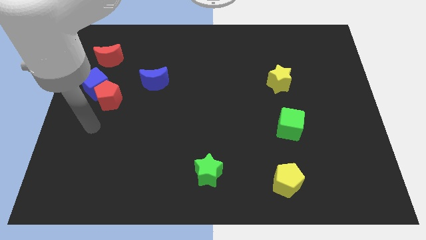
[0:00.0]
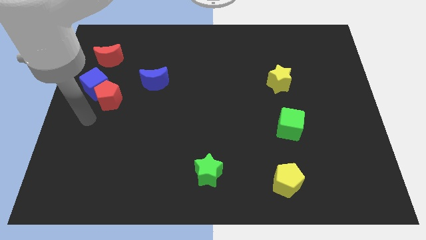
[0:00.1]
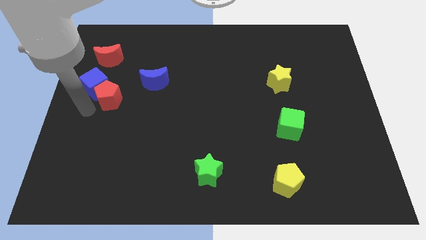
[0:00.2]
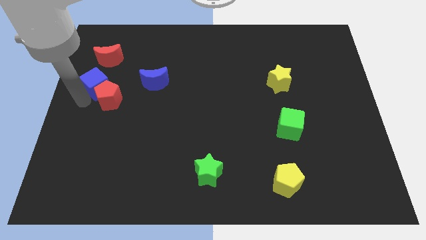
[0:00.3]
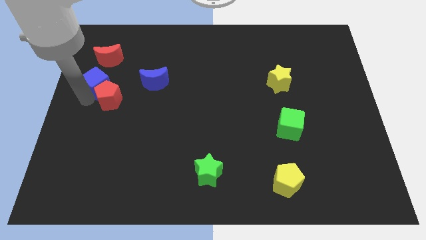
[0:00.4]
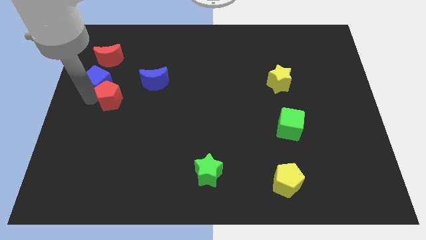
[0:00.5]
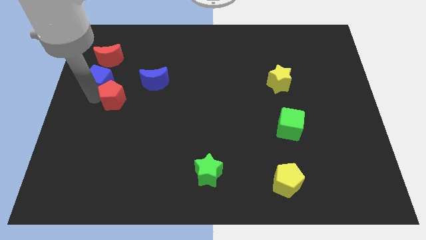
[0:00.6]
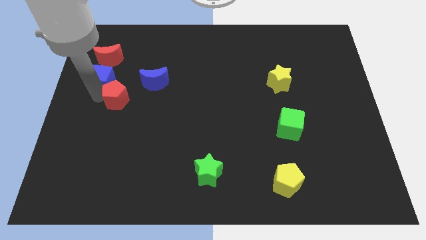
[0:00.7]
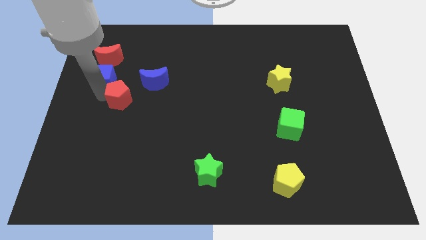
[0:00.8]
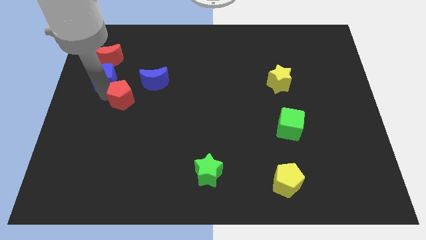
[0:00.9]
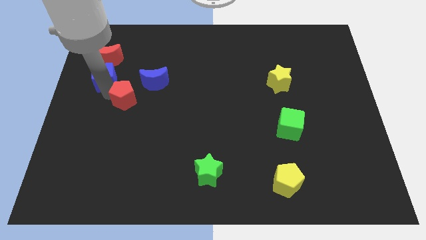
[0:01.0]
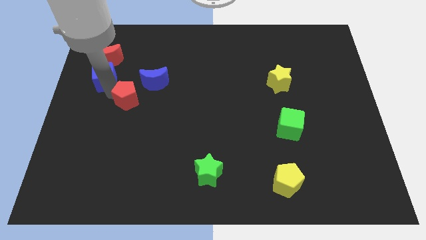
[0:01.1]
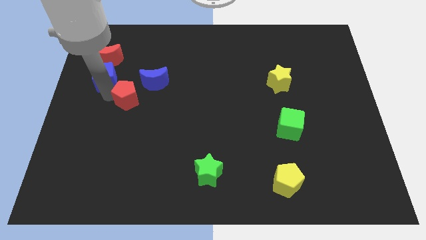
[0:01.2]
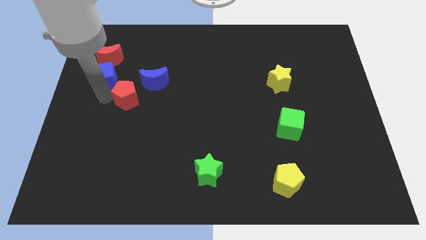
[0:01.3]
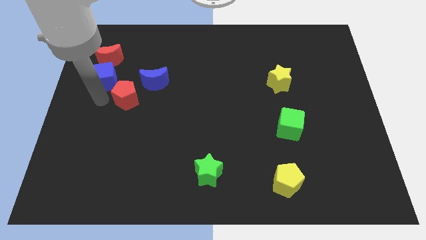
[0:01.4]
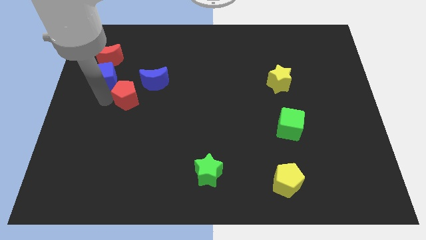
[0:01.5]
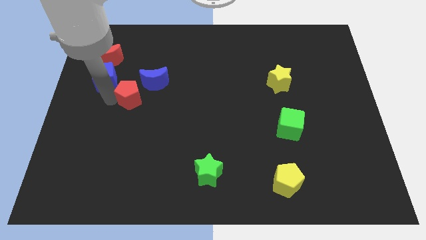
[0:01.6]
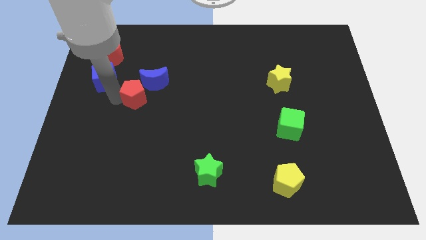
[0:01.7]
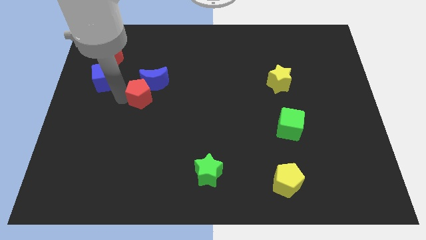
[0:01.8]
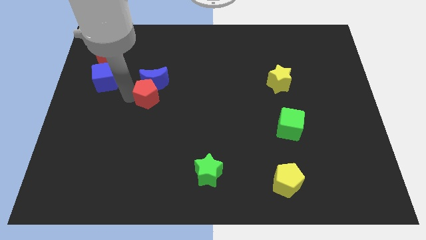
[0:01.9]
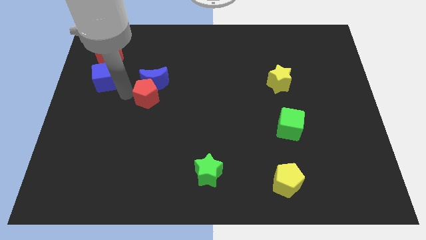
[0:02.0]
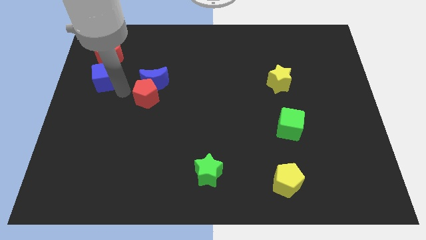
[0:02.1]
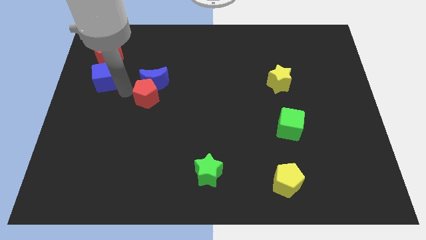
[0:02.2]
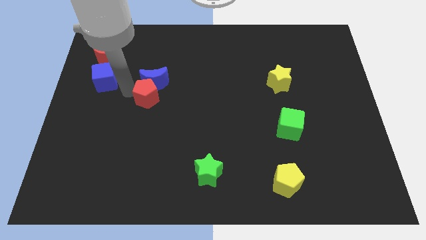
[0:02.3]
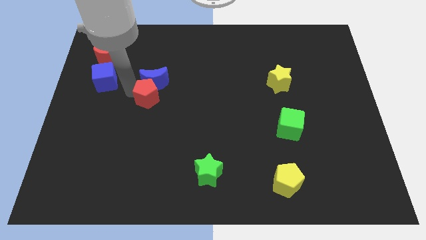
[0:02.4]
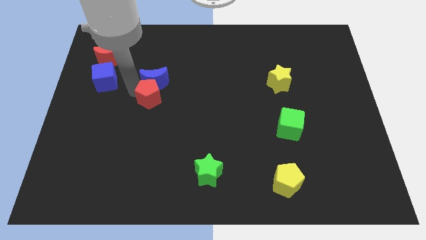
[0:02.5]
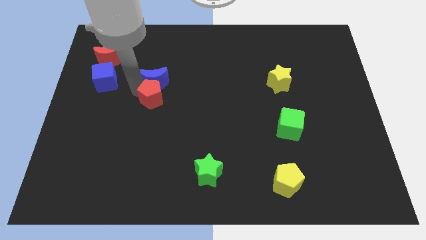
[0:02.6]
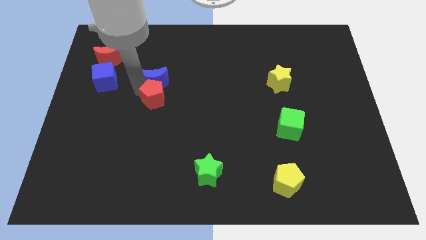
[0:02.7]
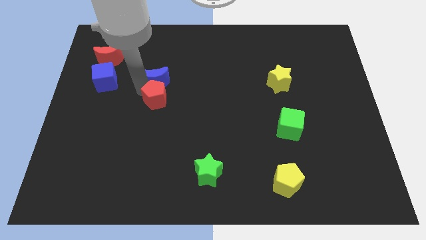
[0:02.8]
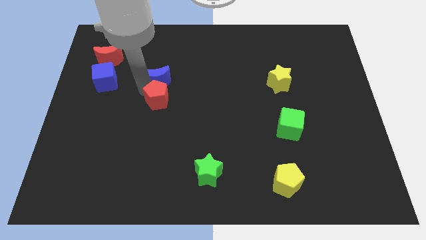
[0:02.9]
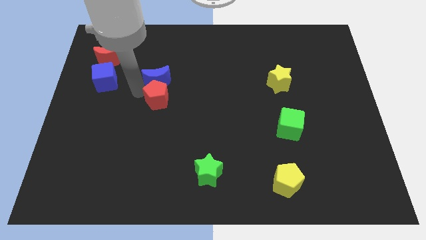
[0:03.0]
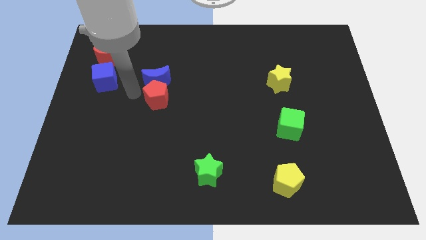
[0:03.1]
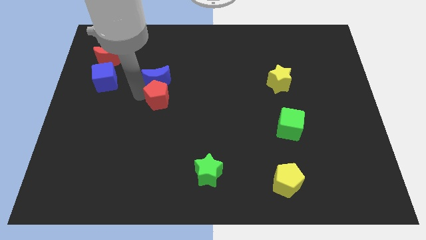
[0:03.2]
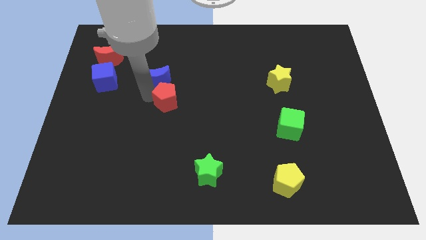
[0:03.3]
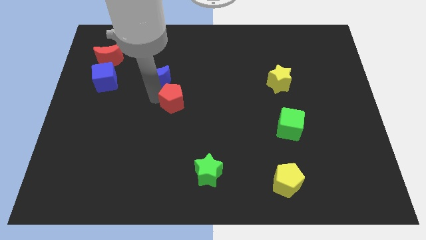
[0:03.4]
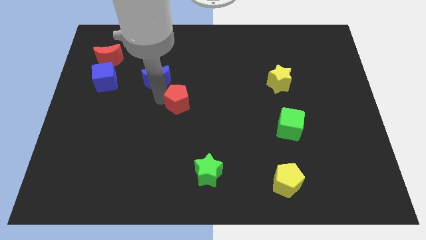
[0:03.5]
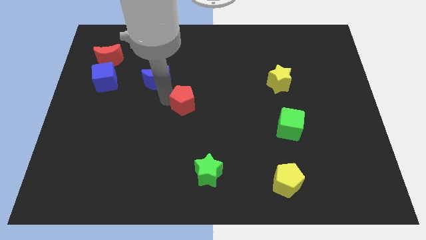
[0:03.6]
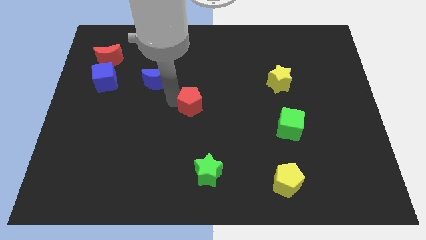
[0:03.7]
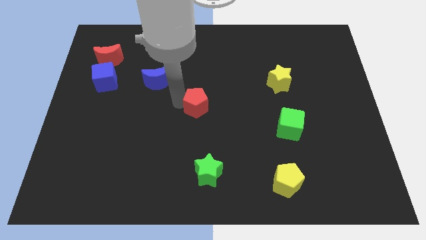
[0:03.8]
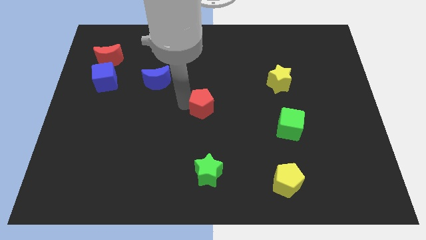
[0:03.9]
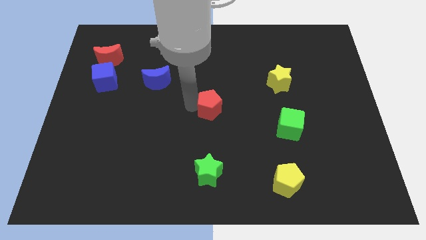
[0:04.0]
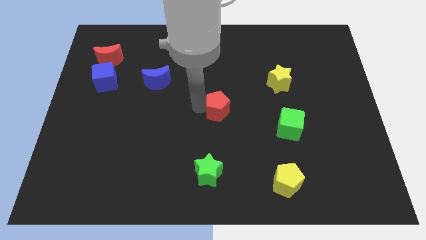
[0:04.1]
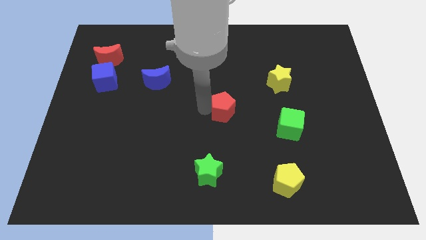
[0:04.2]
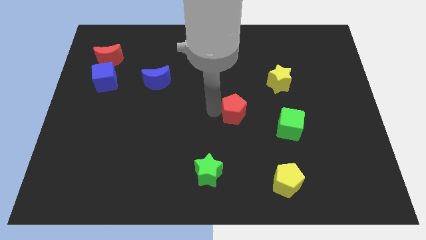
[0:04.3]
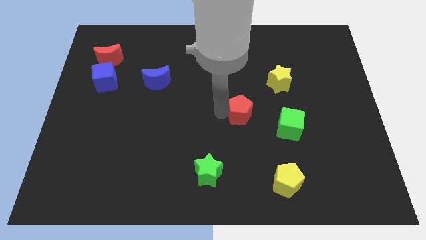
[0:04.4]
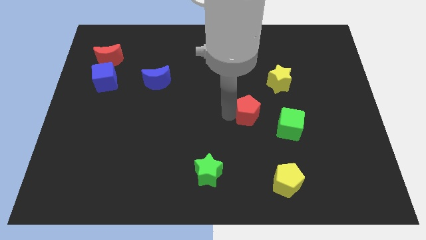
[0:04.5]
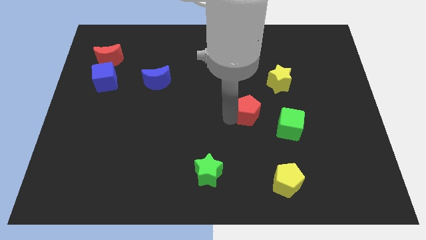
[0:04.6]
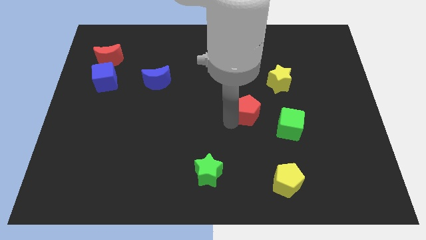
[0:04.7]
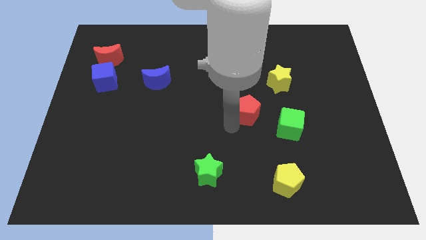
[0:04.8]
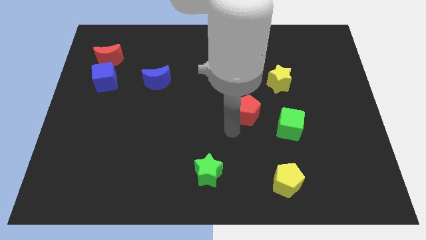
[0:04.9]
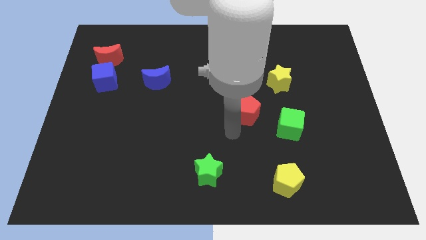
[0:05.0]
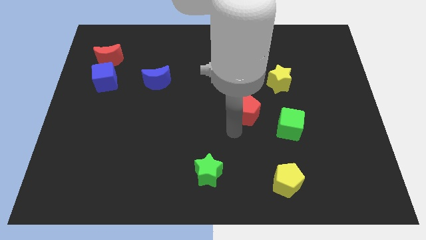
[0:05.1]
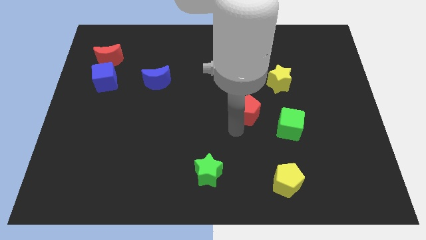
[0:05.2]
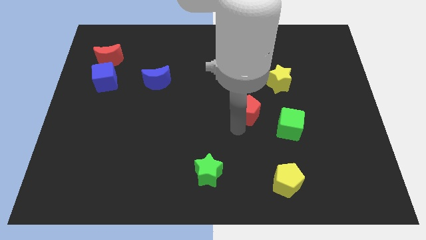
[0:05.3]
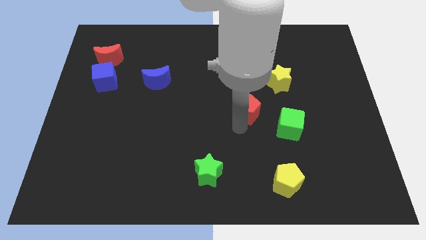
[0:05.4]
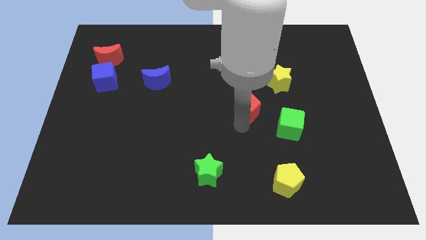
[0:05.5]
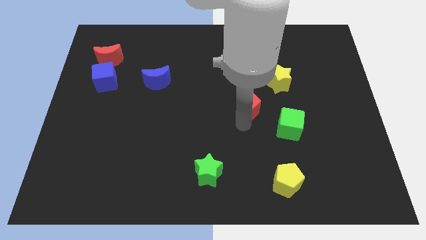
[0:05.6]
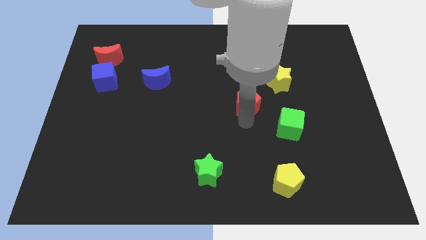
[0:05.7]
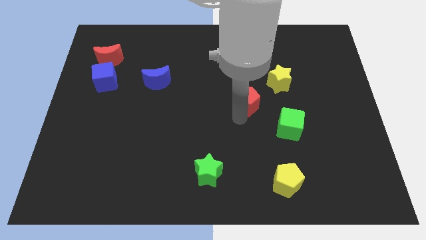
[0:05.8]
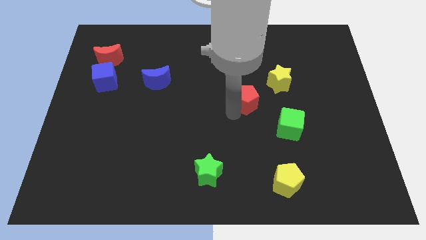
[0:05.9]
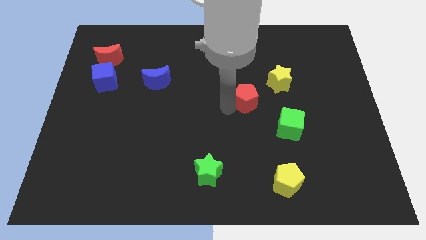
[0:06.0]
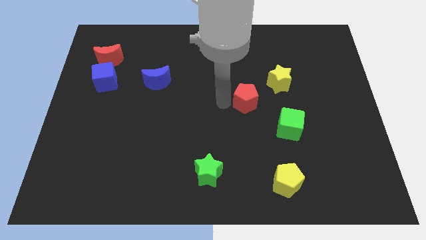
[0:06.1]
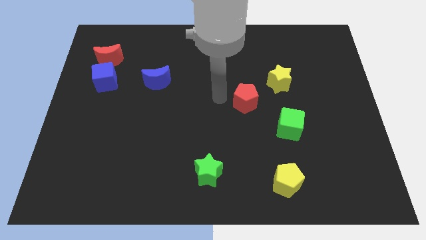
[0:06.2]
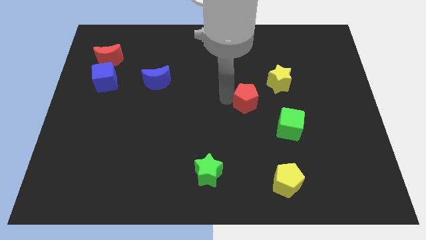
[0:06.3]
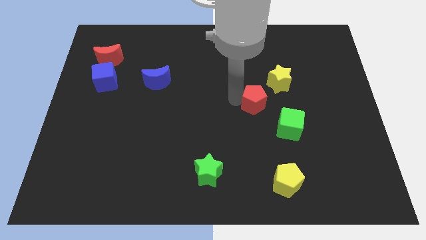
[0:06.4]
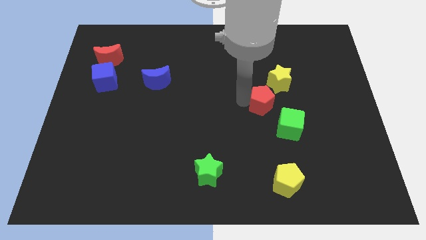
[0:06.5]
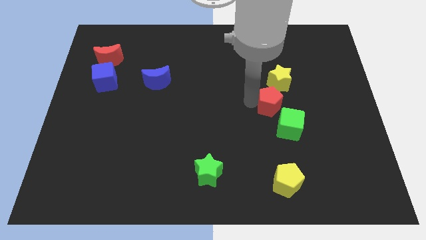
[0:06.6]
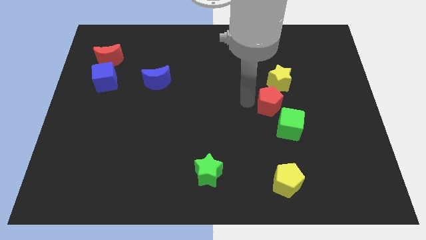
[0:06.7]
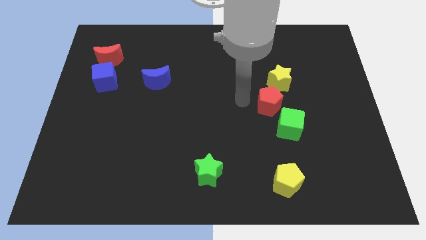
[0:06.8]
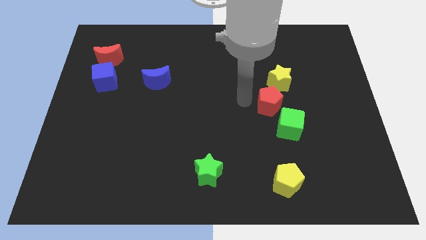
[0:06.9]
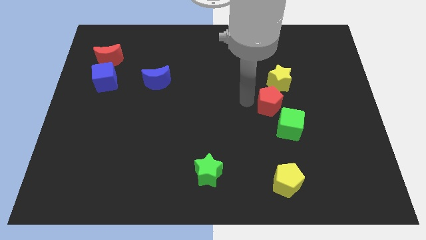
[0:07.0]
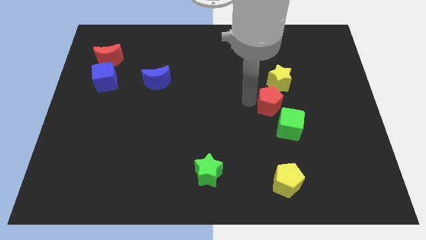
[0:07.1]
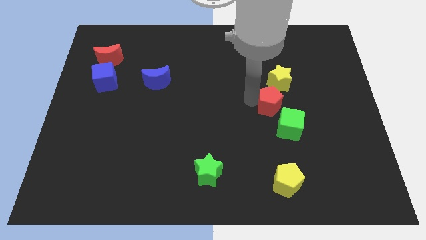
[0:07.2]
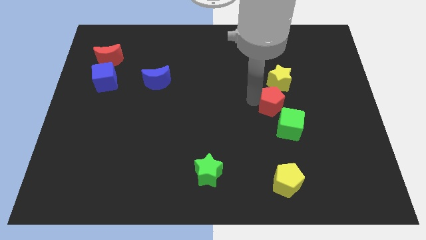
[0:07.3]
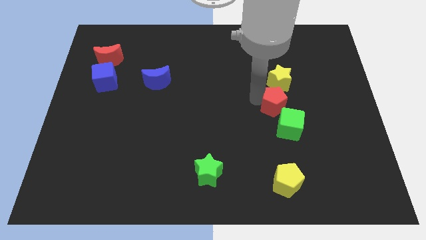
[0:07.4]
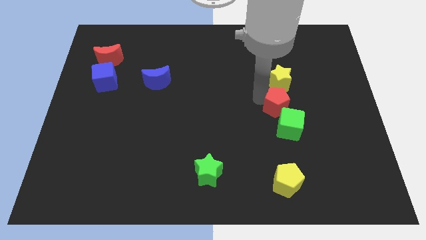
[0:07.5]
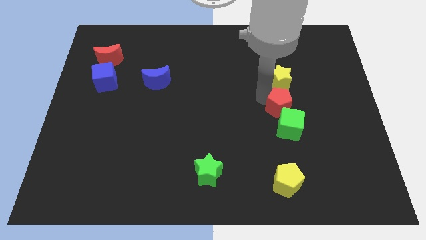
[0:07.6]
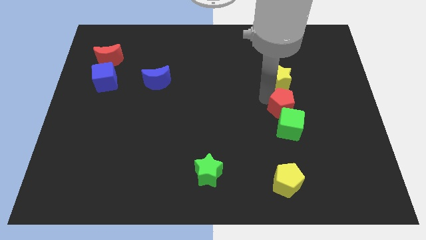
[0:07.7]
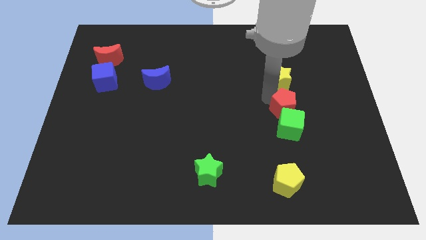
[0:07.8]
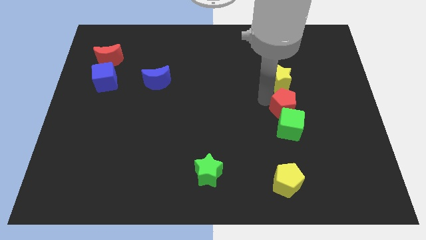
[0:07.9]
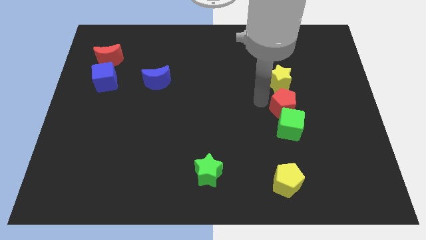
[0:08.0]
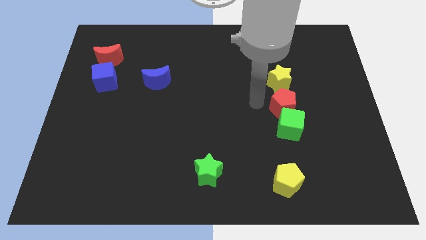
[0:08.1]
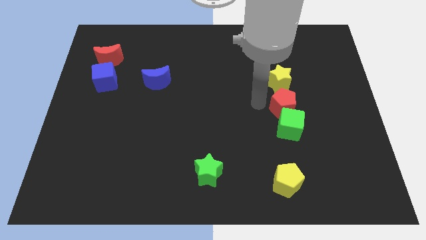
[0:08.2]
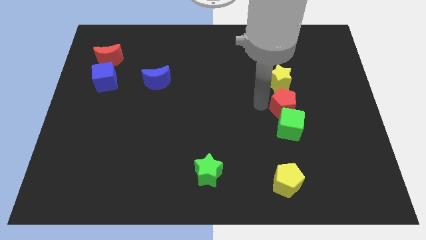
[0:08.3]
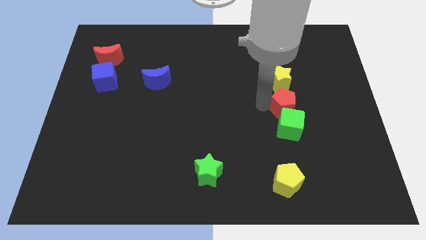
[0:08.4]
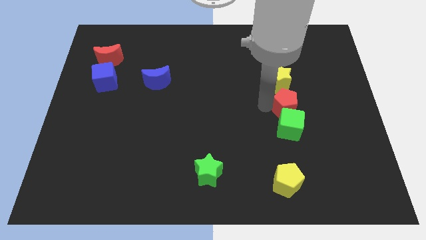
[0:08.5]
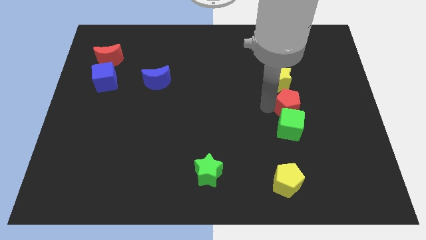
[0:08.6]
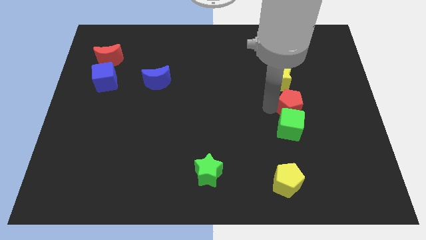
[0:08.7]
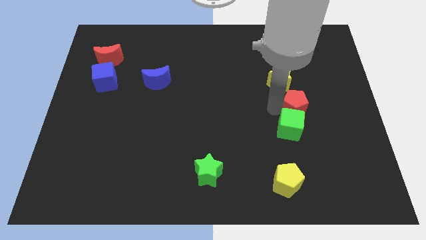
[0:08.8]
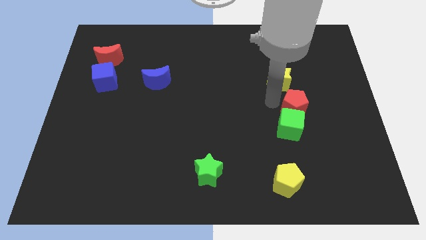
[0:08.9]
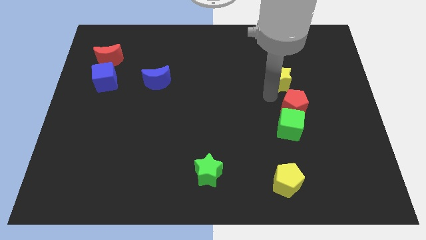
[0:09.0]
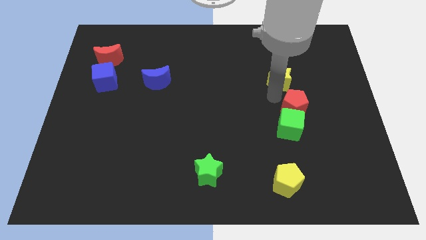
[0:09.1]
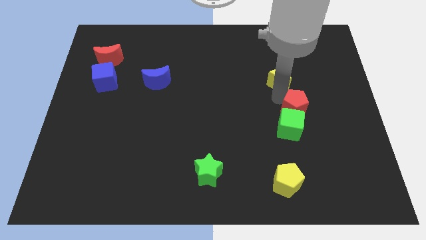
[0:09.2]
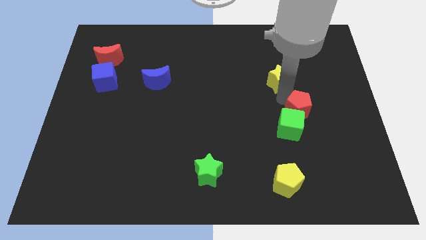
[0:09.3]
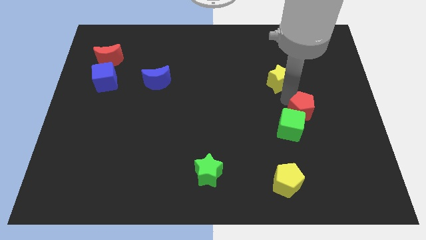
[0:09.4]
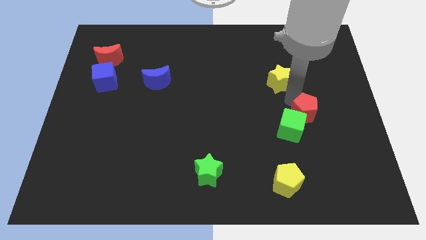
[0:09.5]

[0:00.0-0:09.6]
push the red pentagon to the right side of the green cube
